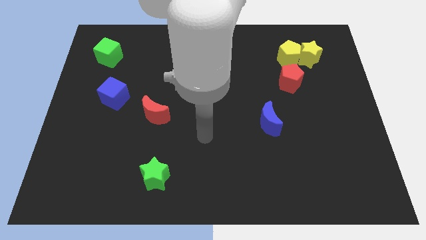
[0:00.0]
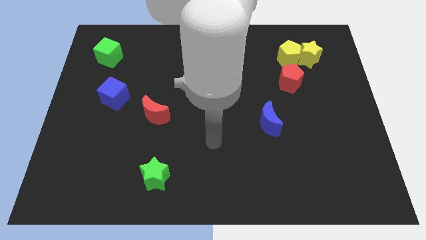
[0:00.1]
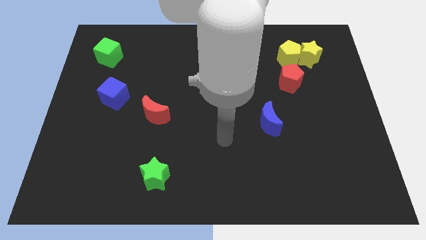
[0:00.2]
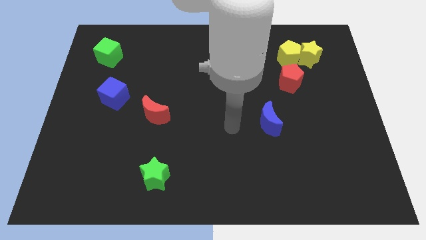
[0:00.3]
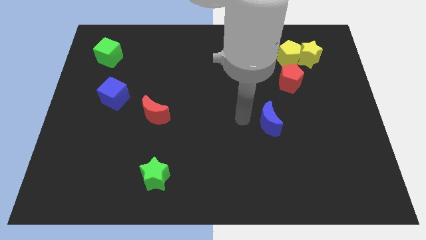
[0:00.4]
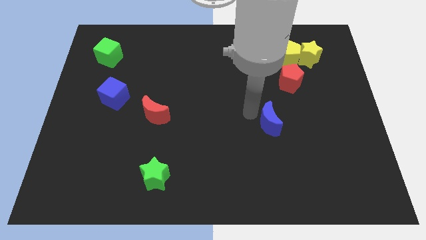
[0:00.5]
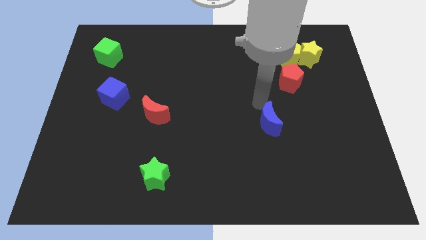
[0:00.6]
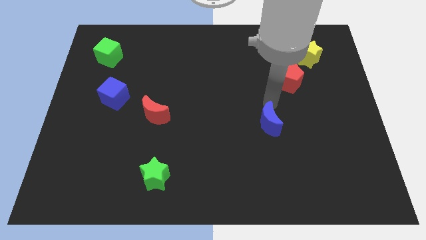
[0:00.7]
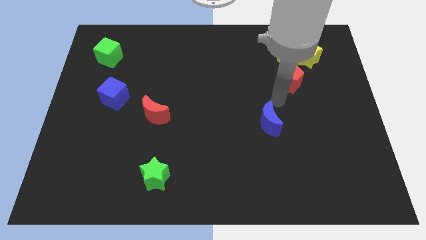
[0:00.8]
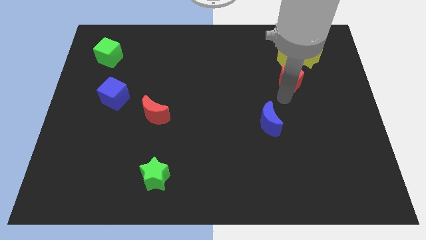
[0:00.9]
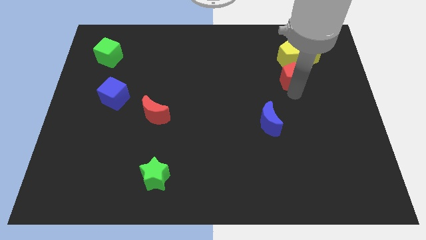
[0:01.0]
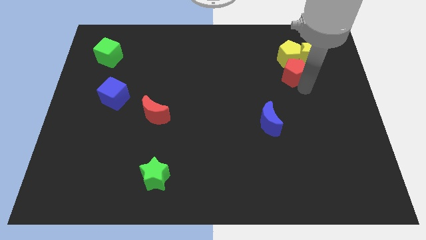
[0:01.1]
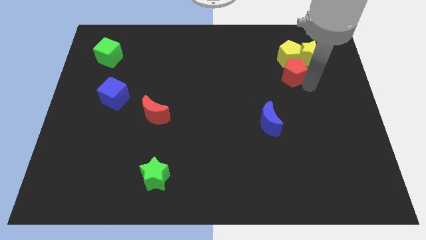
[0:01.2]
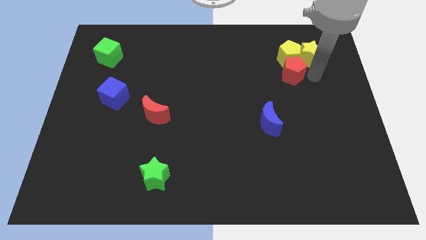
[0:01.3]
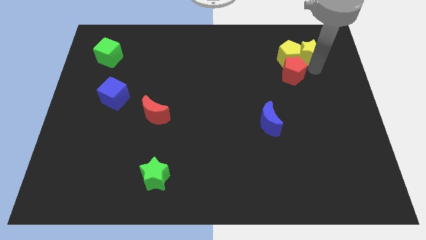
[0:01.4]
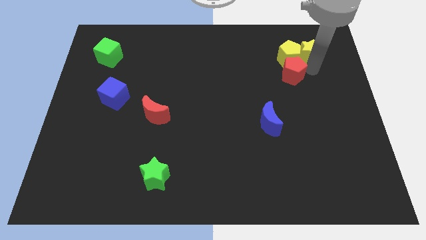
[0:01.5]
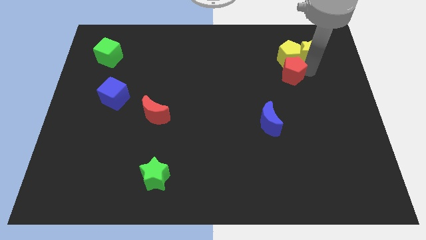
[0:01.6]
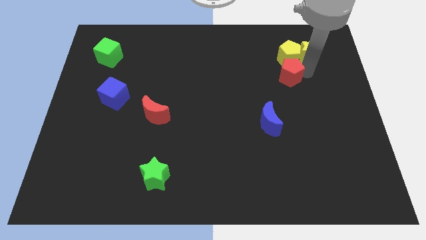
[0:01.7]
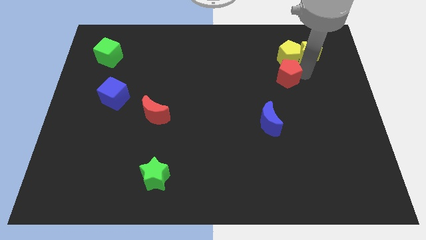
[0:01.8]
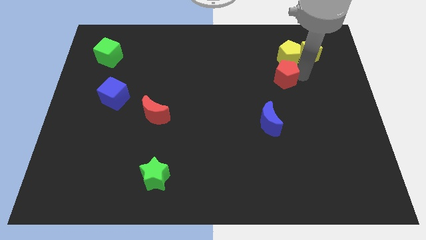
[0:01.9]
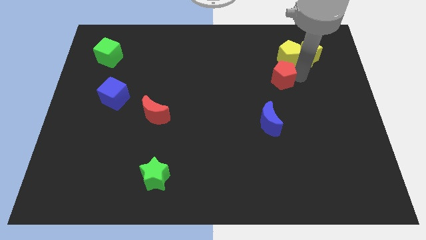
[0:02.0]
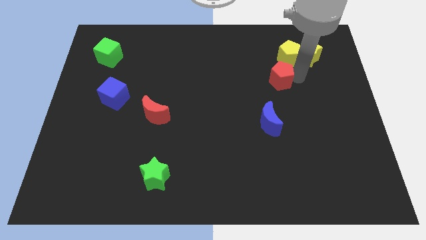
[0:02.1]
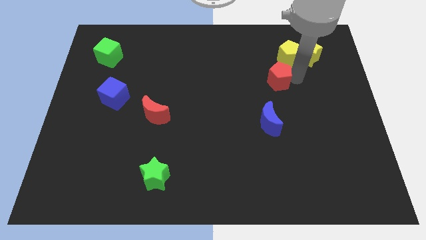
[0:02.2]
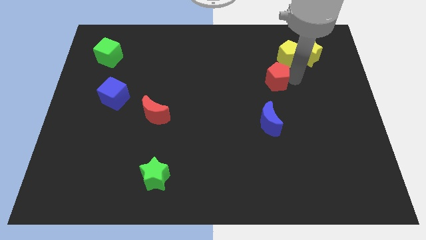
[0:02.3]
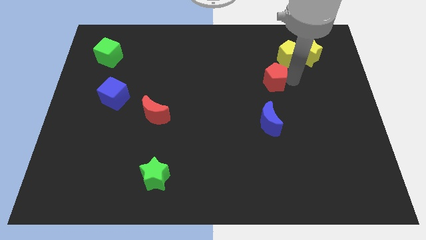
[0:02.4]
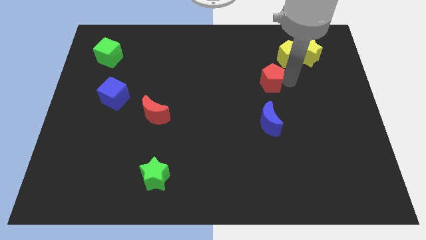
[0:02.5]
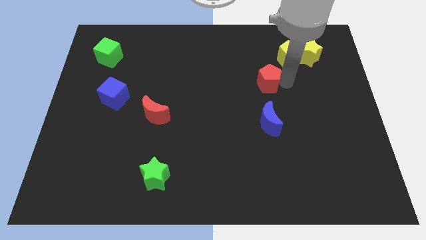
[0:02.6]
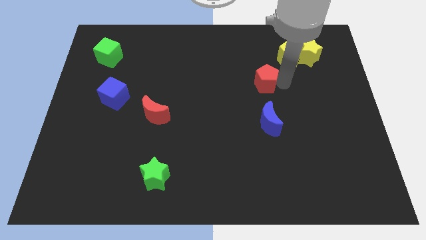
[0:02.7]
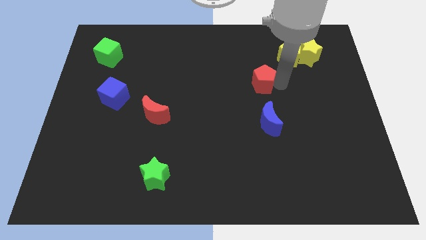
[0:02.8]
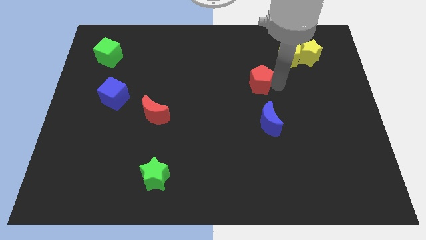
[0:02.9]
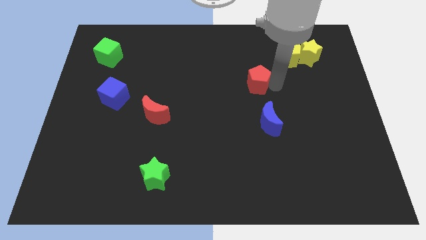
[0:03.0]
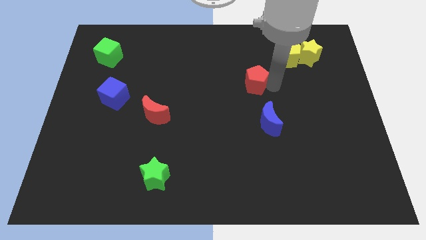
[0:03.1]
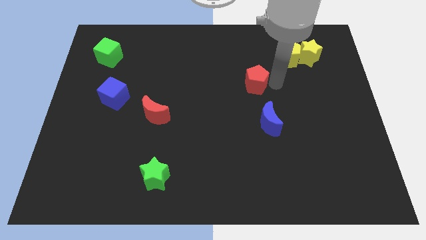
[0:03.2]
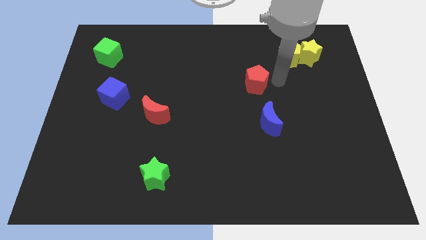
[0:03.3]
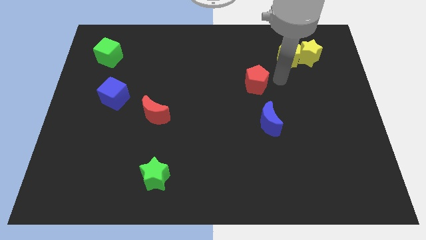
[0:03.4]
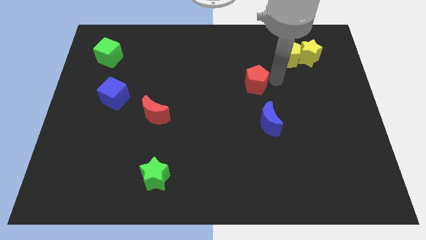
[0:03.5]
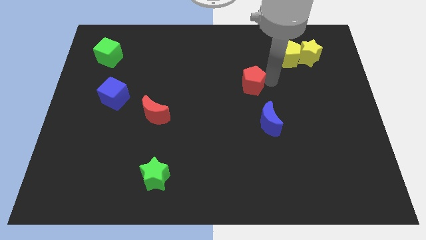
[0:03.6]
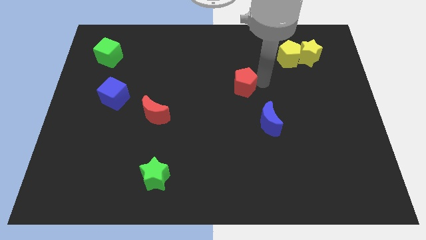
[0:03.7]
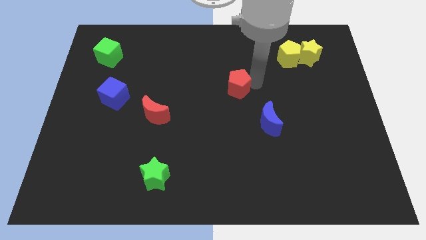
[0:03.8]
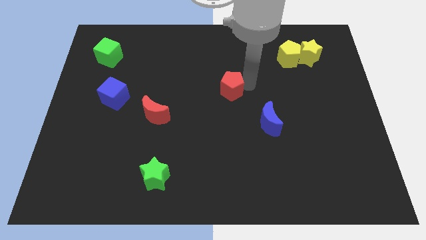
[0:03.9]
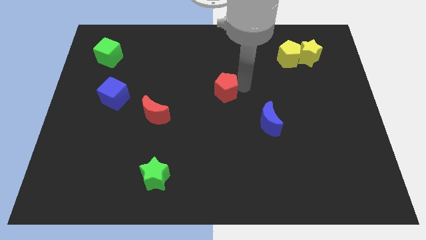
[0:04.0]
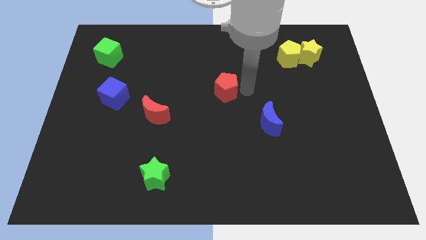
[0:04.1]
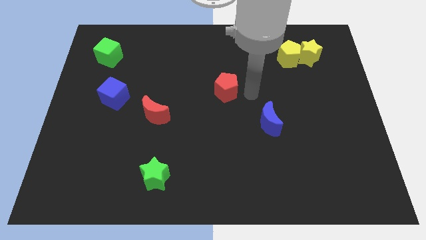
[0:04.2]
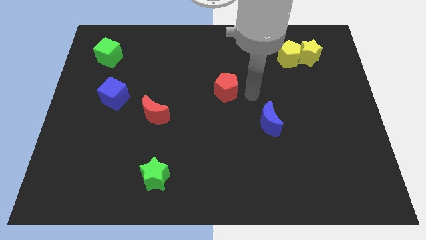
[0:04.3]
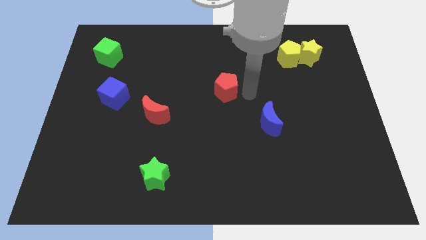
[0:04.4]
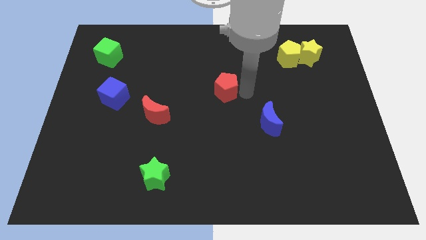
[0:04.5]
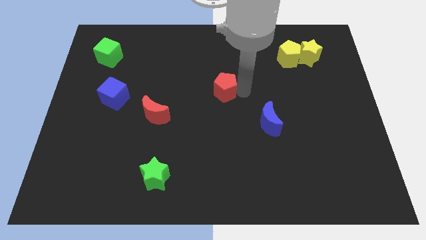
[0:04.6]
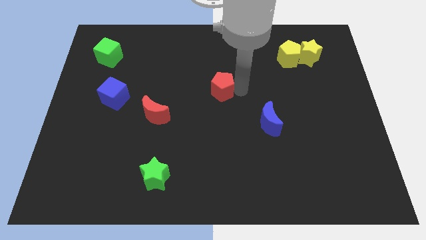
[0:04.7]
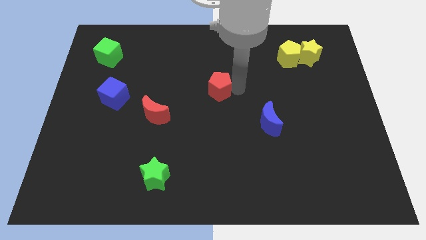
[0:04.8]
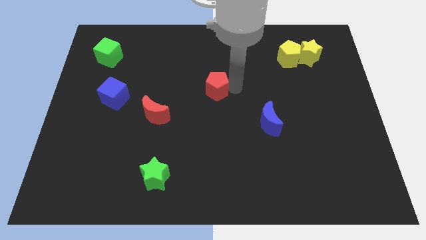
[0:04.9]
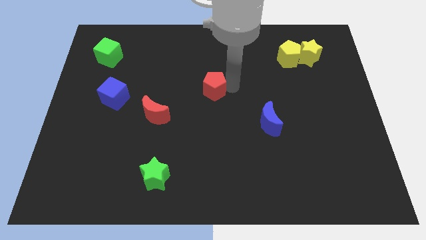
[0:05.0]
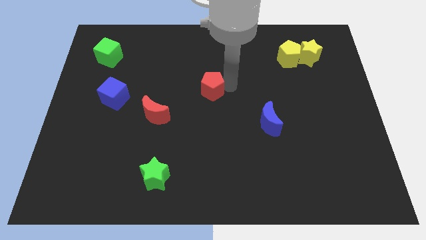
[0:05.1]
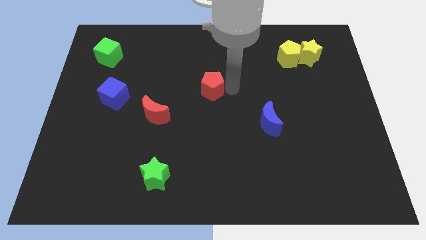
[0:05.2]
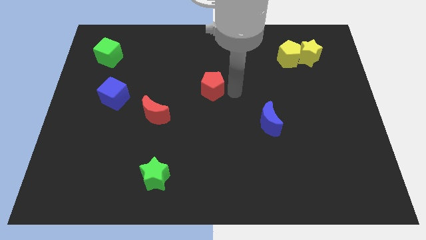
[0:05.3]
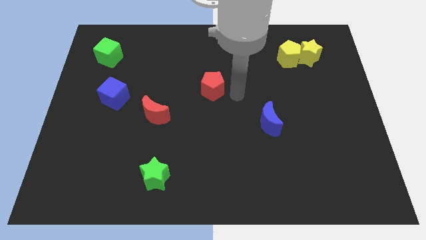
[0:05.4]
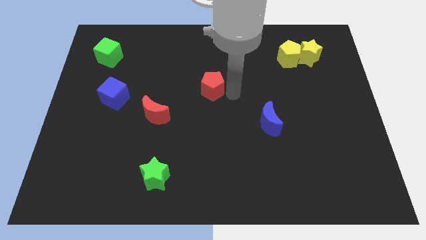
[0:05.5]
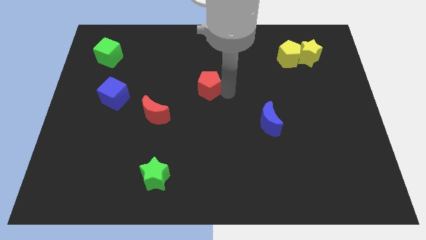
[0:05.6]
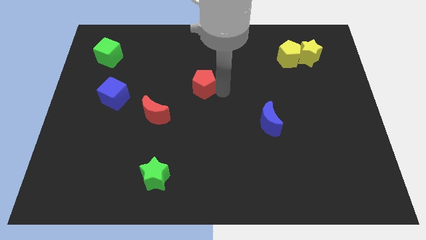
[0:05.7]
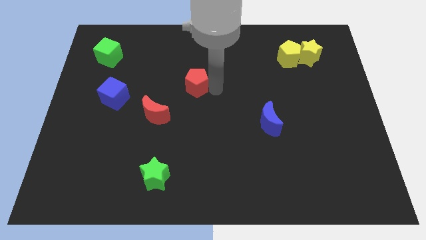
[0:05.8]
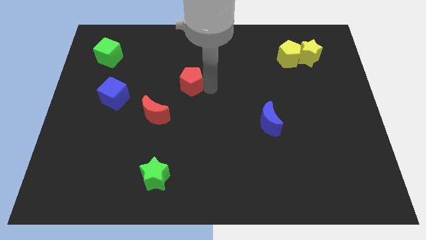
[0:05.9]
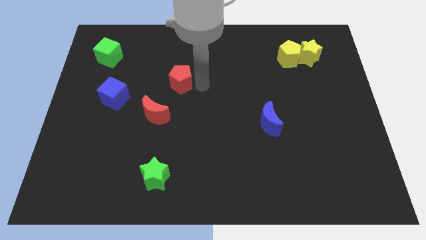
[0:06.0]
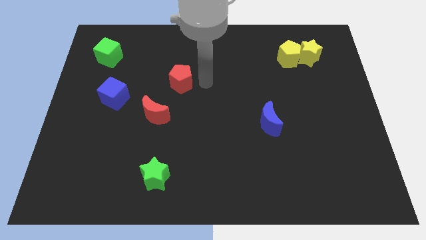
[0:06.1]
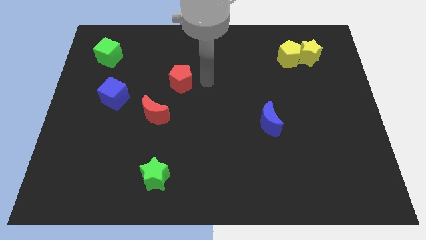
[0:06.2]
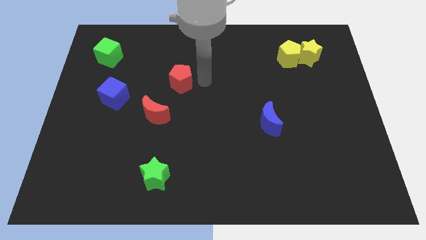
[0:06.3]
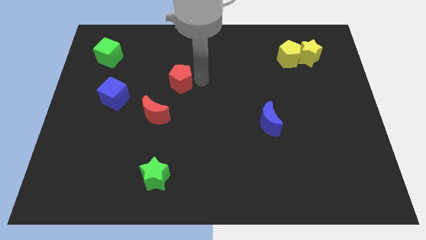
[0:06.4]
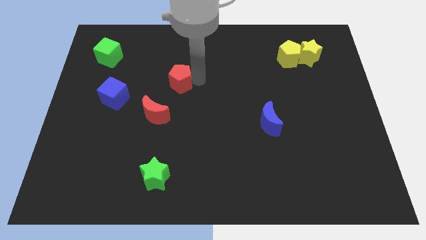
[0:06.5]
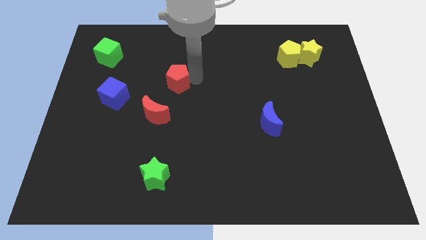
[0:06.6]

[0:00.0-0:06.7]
push the red pentagon to the top of the red moon

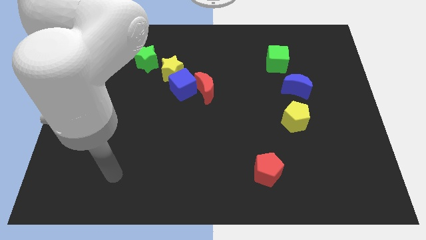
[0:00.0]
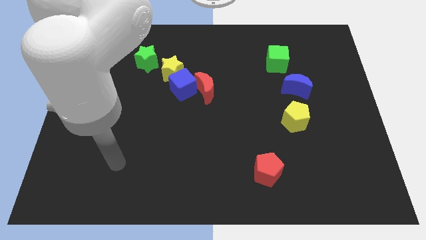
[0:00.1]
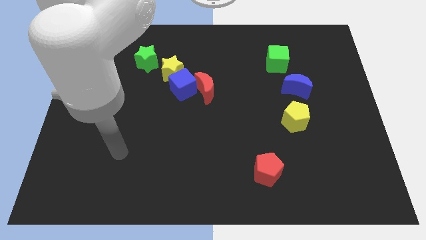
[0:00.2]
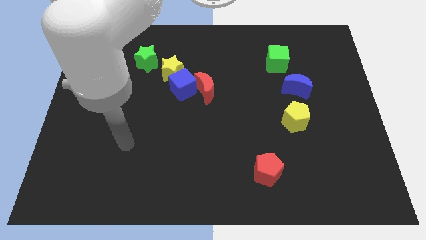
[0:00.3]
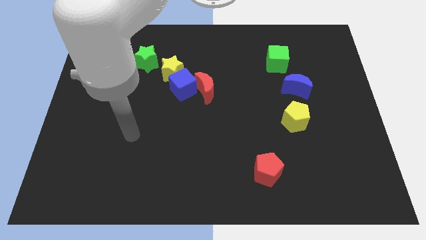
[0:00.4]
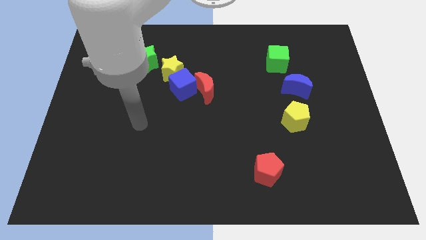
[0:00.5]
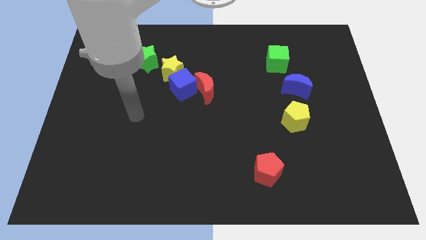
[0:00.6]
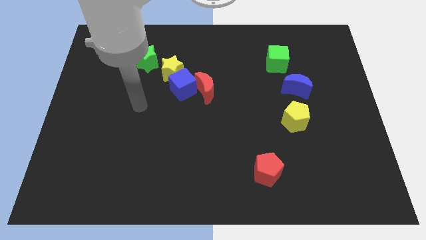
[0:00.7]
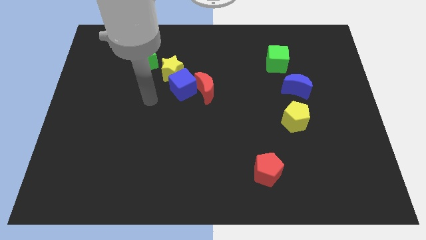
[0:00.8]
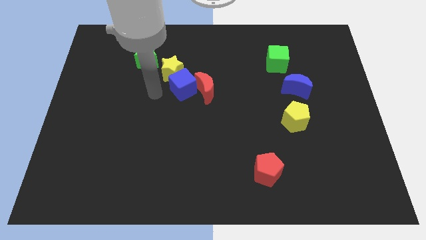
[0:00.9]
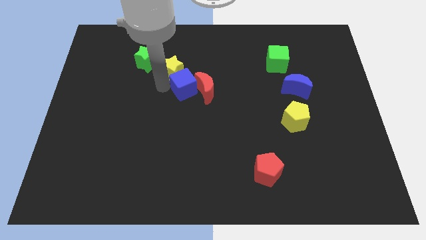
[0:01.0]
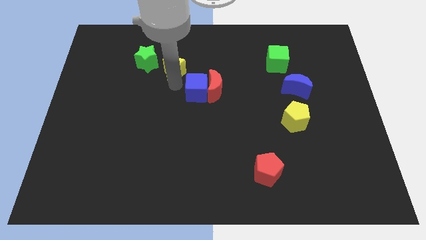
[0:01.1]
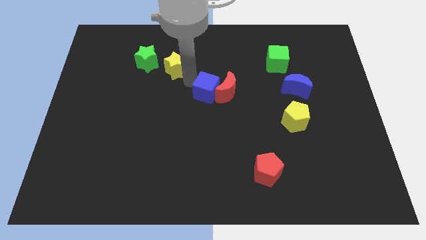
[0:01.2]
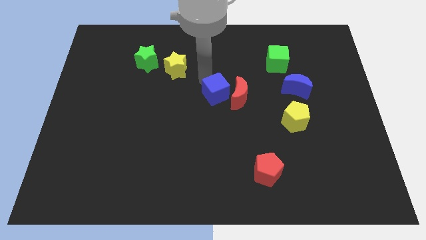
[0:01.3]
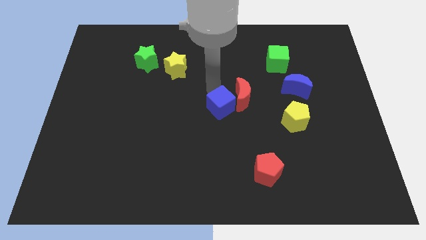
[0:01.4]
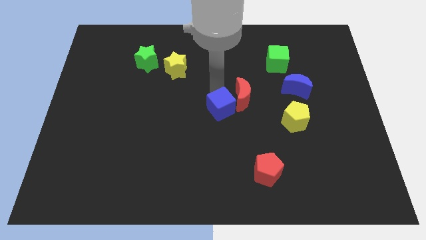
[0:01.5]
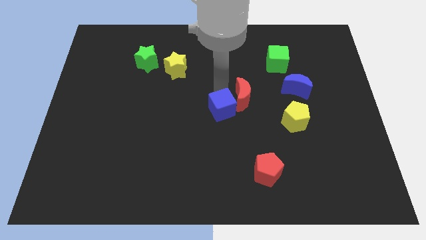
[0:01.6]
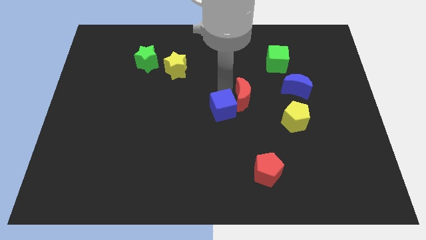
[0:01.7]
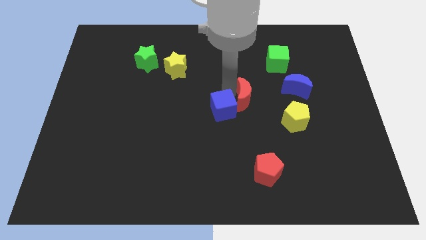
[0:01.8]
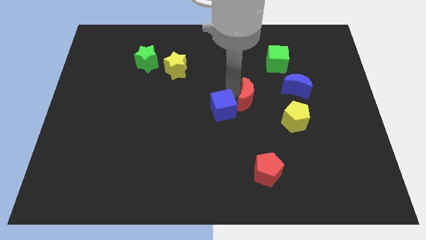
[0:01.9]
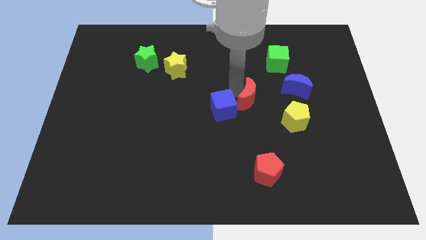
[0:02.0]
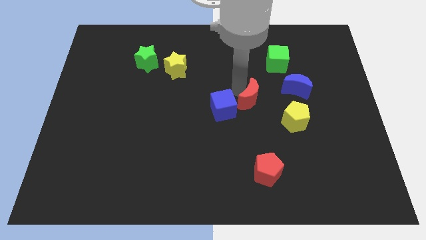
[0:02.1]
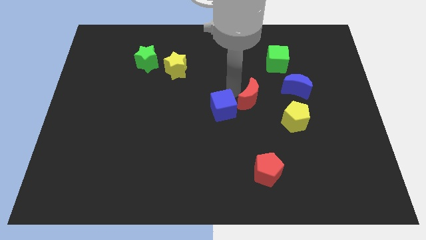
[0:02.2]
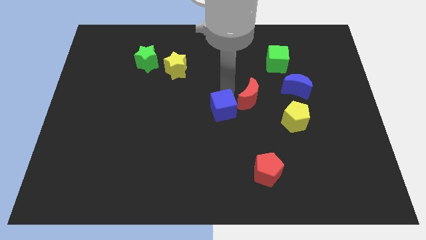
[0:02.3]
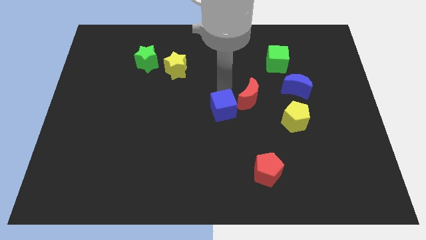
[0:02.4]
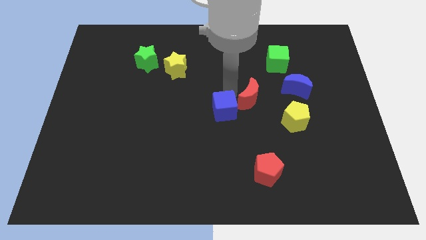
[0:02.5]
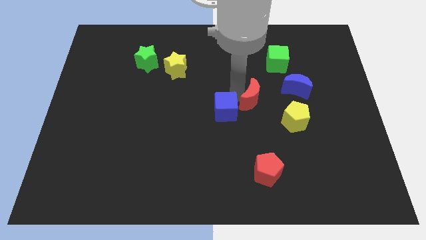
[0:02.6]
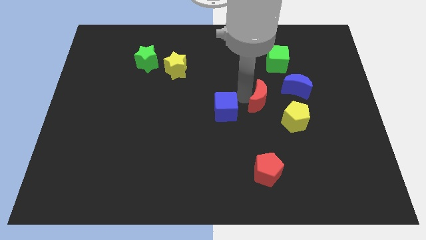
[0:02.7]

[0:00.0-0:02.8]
push the red moon diagonally down and to the left of the blue moon
